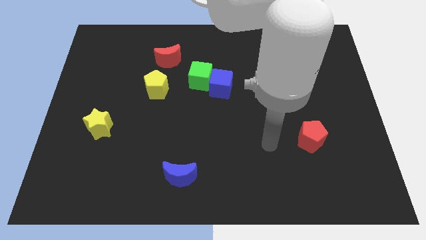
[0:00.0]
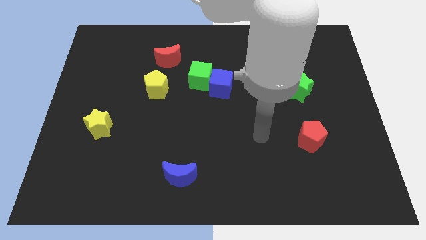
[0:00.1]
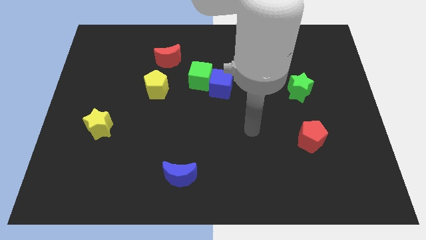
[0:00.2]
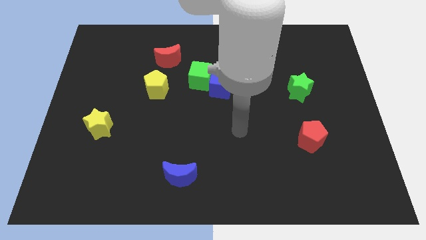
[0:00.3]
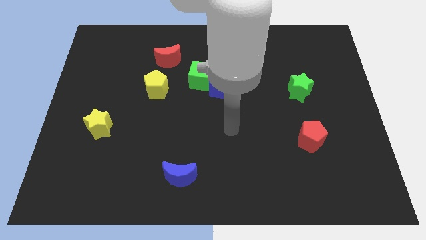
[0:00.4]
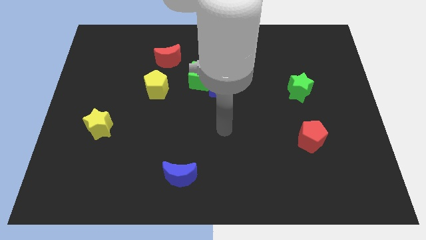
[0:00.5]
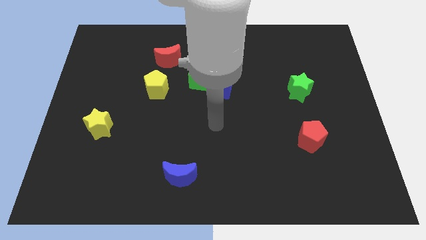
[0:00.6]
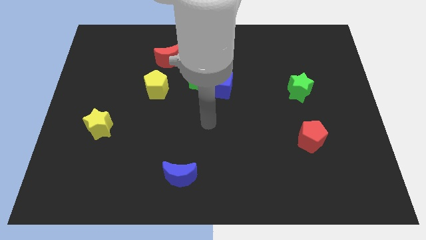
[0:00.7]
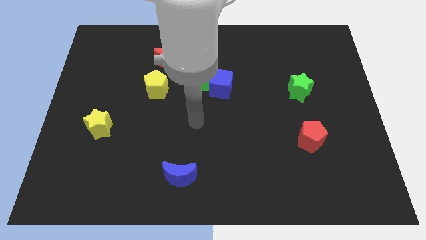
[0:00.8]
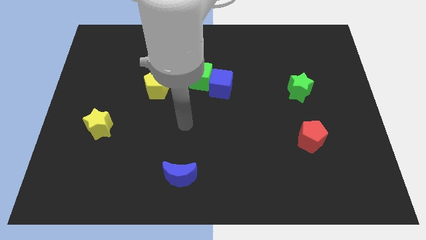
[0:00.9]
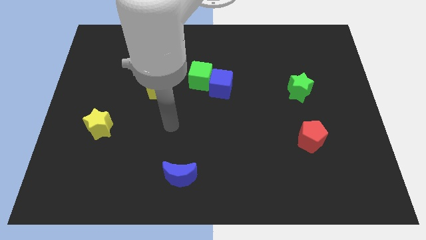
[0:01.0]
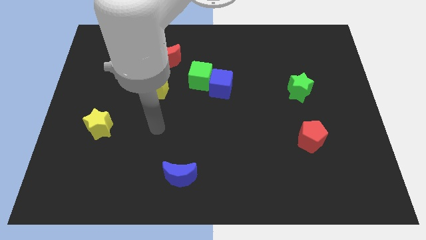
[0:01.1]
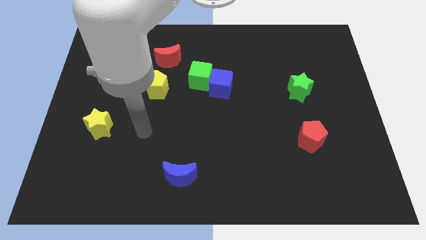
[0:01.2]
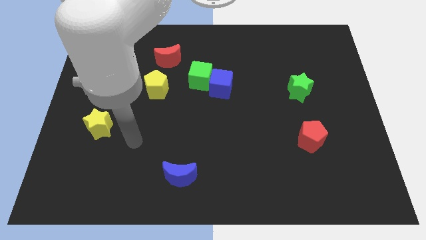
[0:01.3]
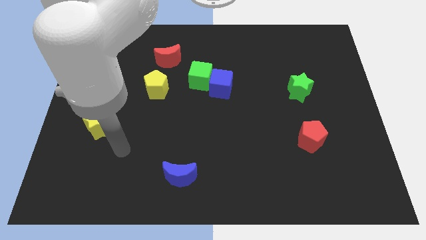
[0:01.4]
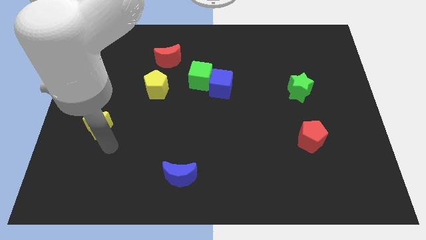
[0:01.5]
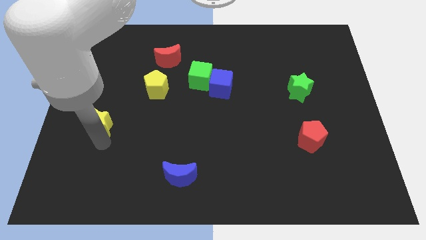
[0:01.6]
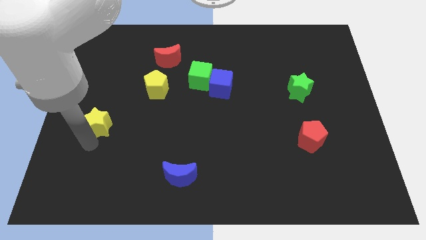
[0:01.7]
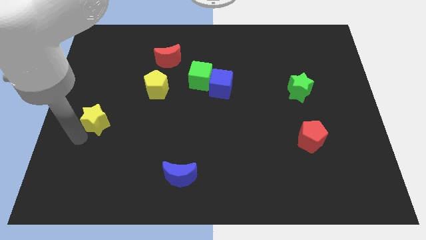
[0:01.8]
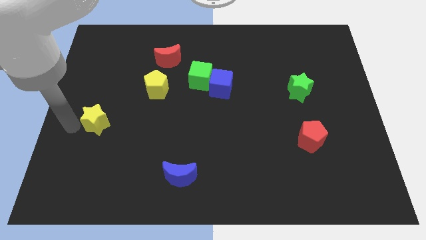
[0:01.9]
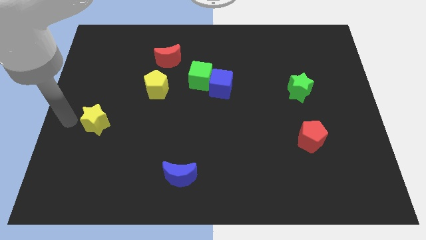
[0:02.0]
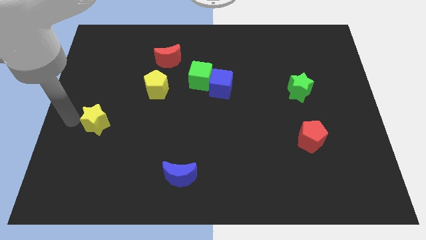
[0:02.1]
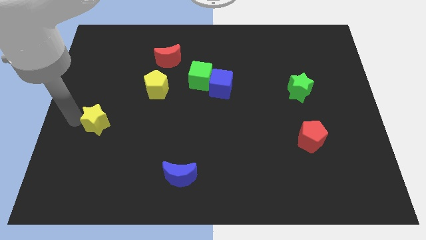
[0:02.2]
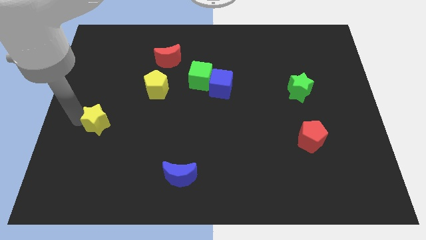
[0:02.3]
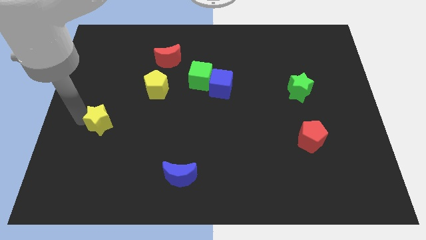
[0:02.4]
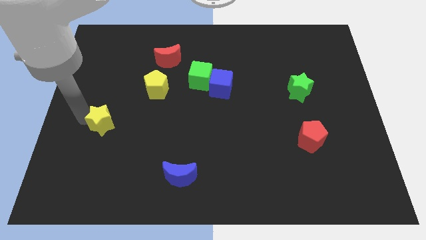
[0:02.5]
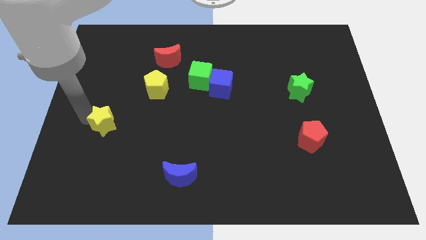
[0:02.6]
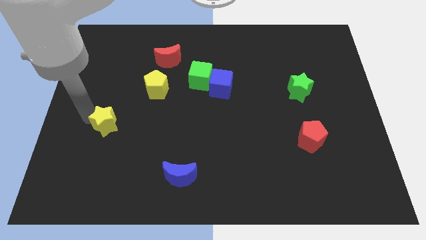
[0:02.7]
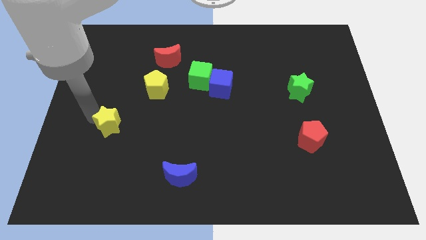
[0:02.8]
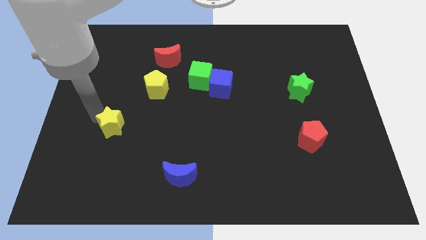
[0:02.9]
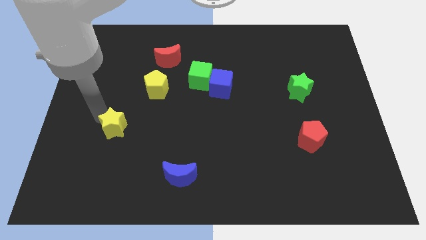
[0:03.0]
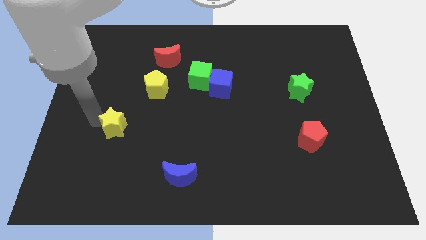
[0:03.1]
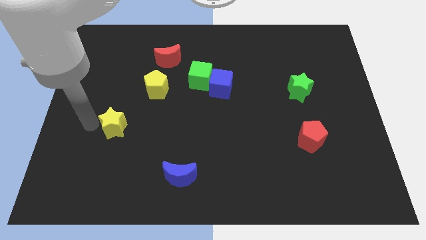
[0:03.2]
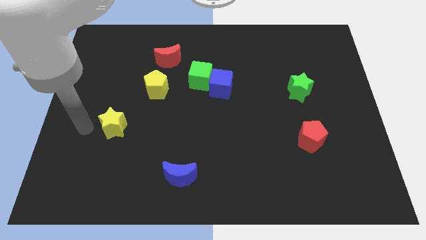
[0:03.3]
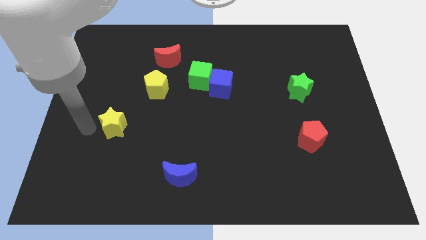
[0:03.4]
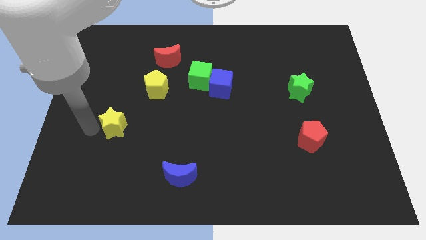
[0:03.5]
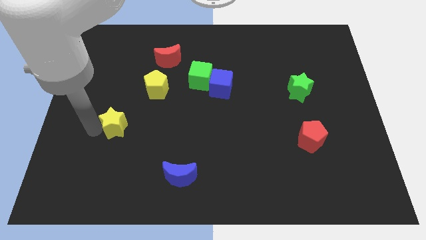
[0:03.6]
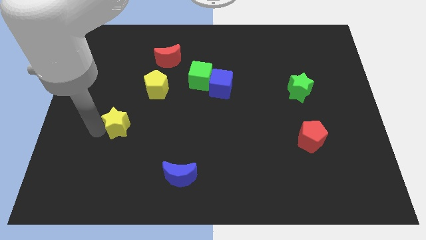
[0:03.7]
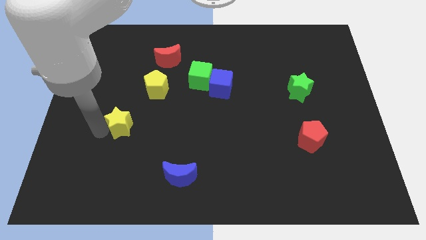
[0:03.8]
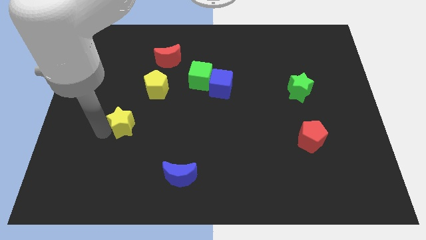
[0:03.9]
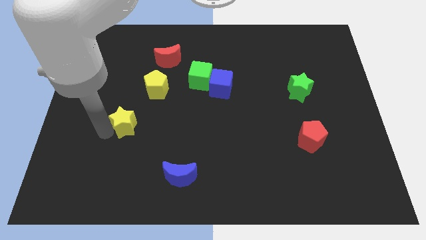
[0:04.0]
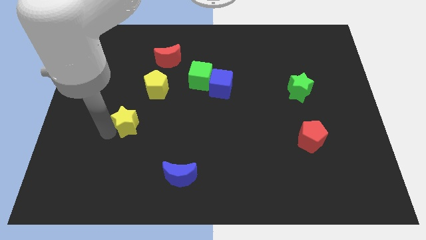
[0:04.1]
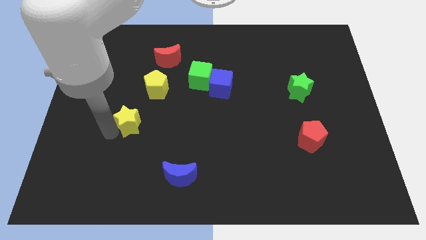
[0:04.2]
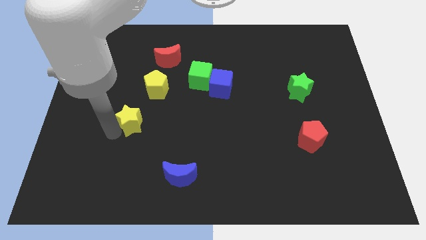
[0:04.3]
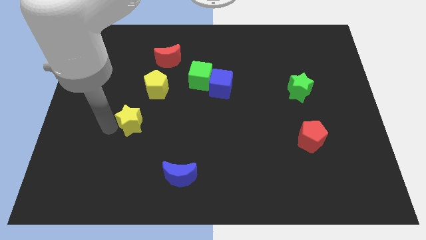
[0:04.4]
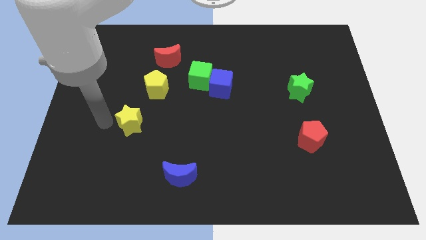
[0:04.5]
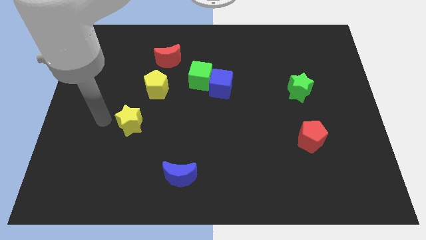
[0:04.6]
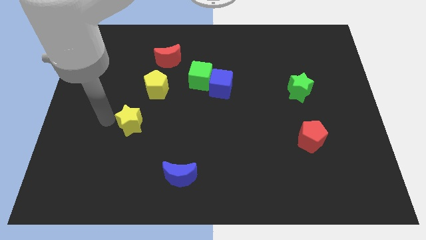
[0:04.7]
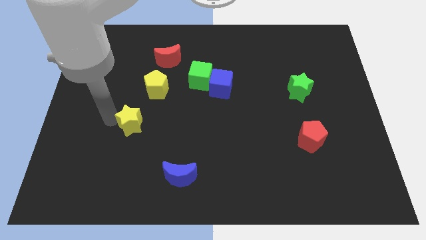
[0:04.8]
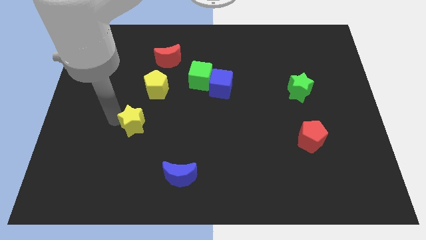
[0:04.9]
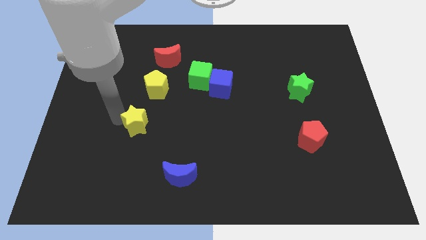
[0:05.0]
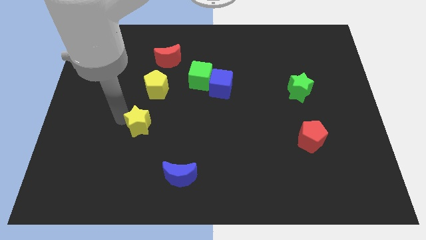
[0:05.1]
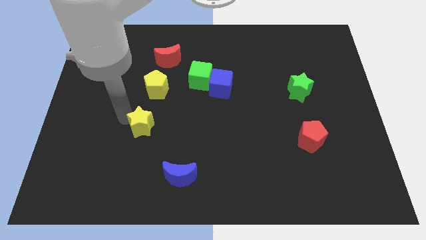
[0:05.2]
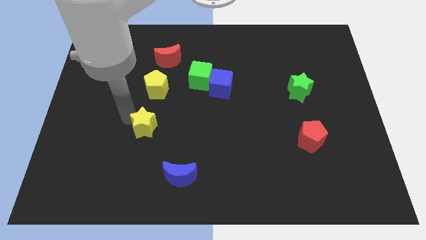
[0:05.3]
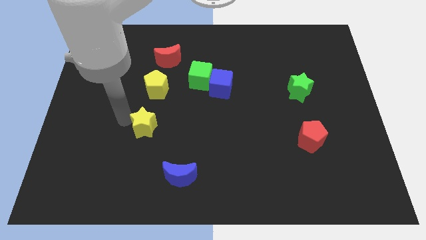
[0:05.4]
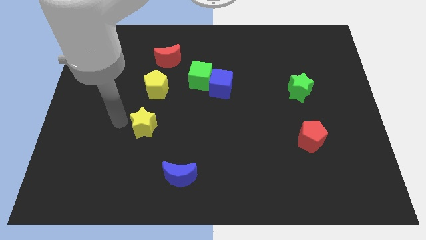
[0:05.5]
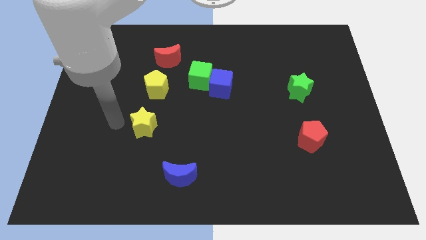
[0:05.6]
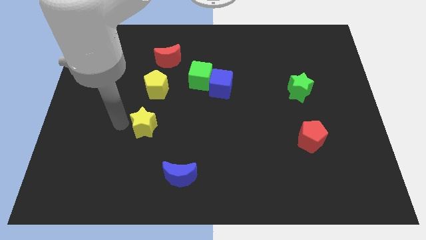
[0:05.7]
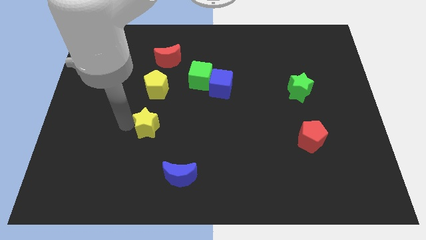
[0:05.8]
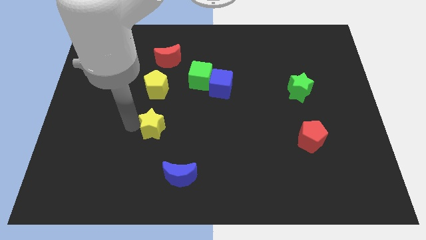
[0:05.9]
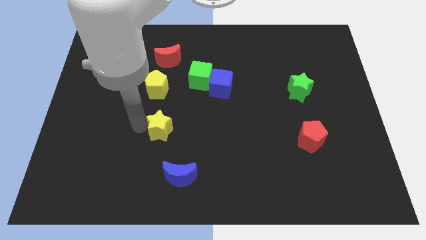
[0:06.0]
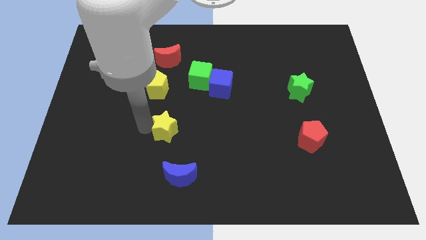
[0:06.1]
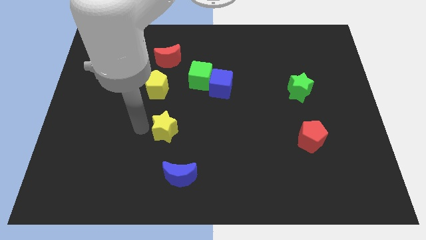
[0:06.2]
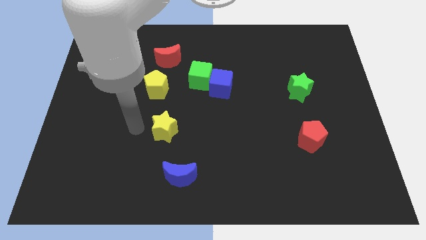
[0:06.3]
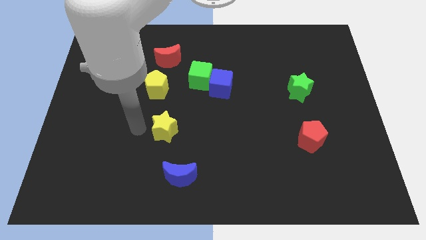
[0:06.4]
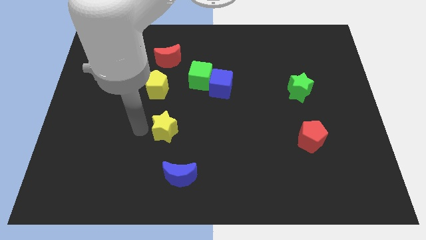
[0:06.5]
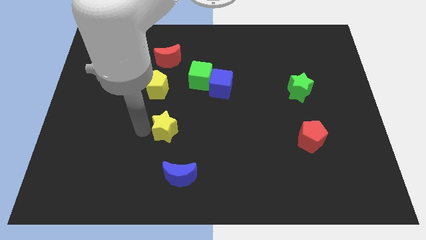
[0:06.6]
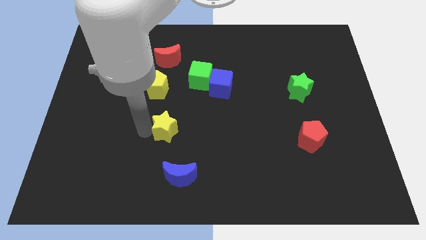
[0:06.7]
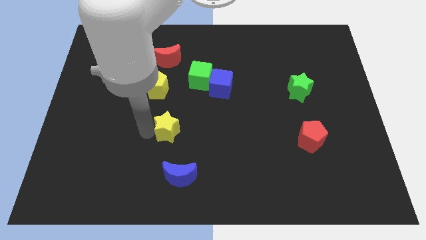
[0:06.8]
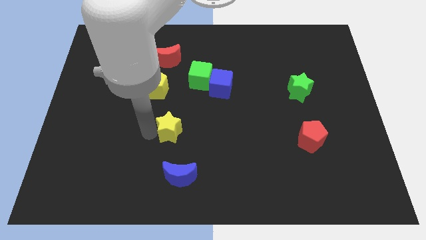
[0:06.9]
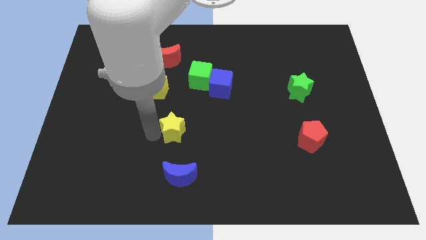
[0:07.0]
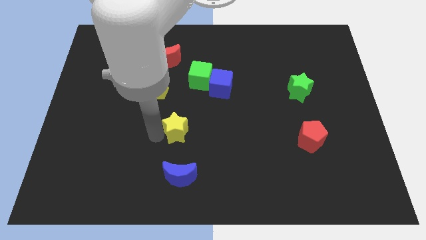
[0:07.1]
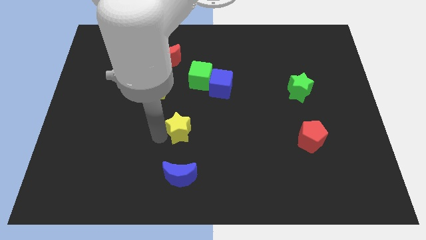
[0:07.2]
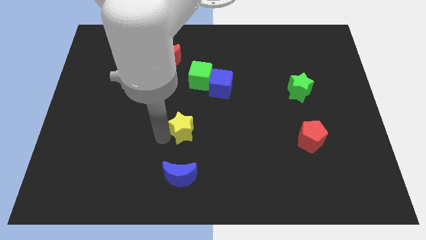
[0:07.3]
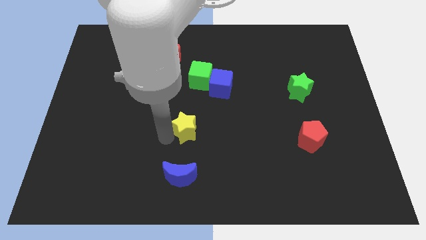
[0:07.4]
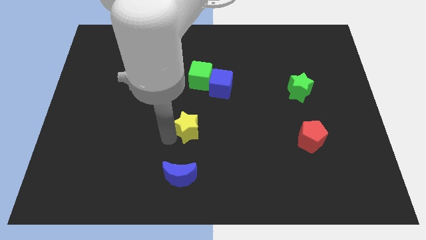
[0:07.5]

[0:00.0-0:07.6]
push the yellow star to the right

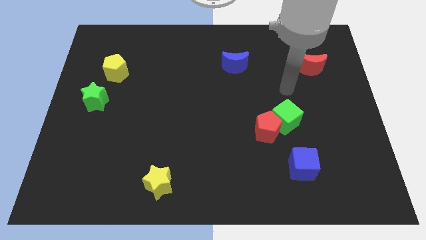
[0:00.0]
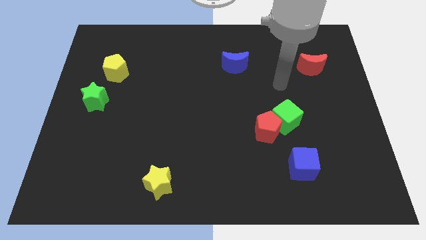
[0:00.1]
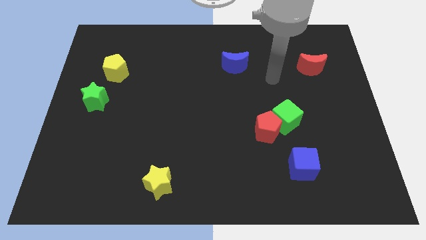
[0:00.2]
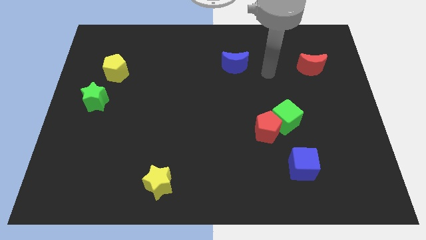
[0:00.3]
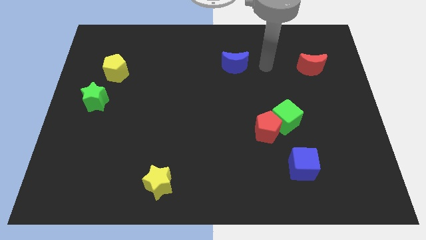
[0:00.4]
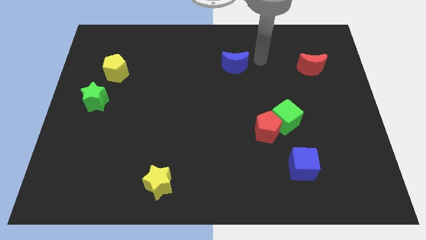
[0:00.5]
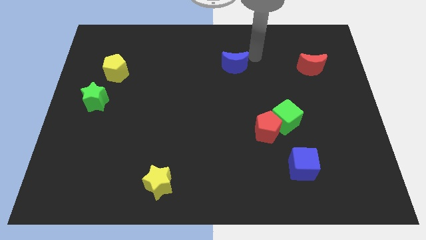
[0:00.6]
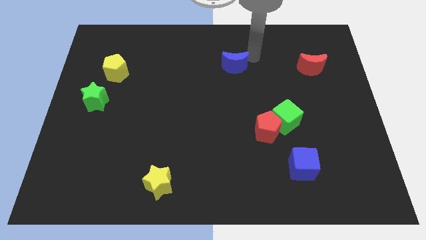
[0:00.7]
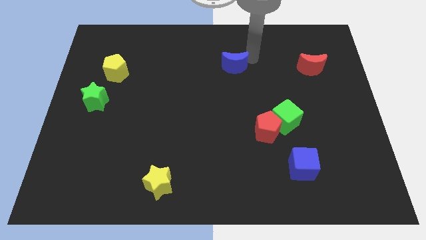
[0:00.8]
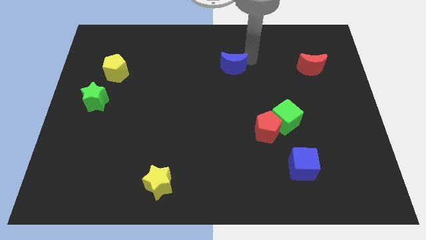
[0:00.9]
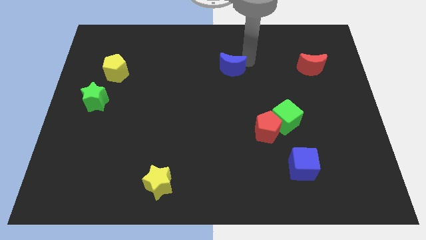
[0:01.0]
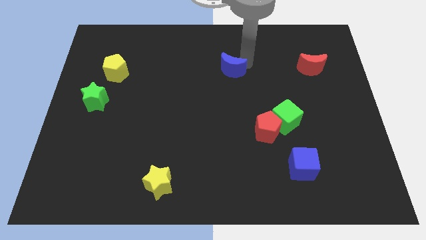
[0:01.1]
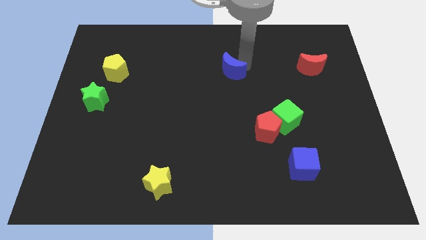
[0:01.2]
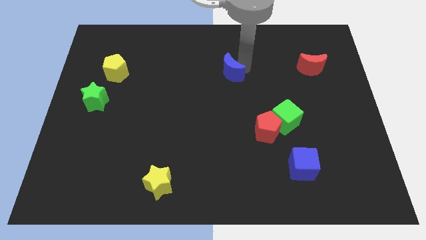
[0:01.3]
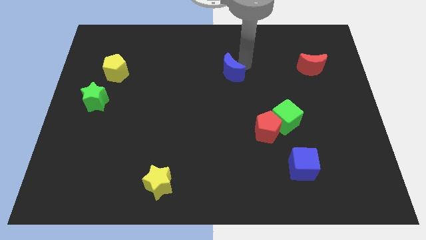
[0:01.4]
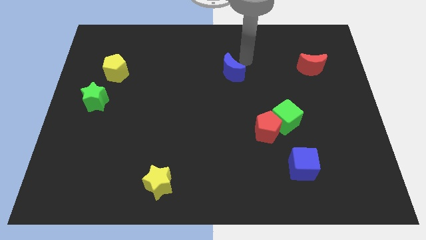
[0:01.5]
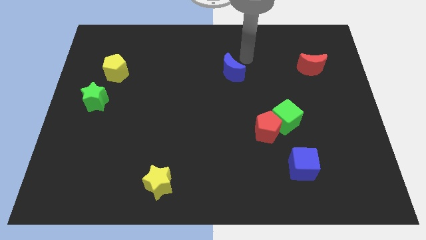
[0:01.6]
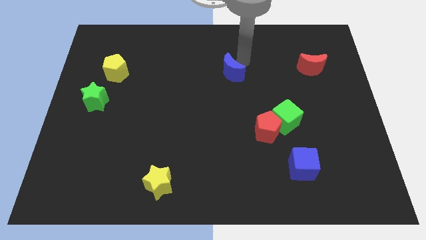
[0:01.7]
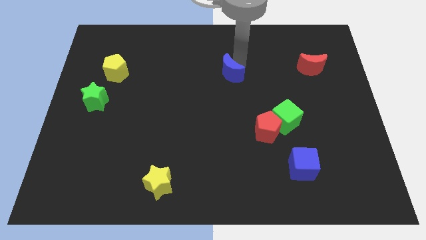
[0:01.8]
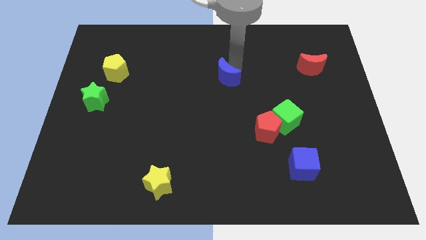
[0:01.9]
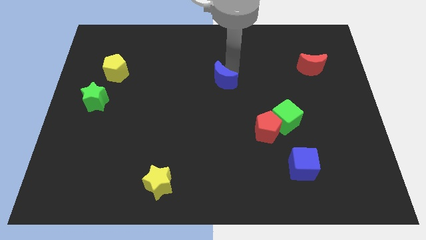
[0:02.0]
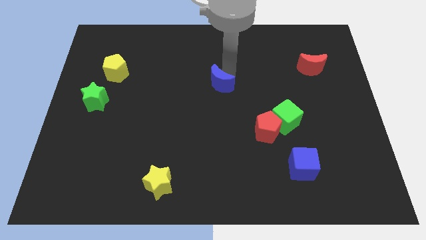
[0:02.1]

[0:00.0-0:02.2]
move the blue moon down and then to the left somewhat
